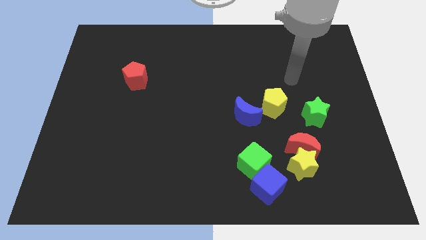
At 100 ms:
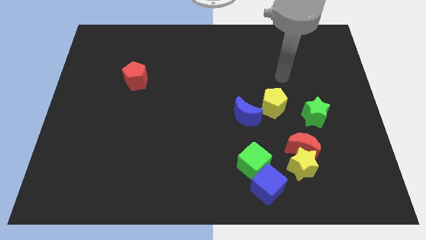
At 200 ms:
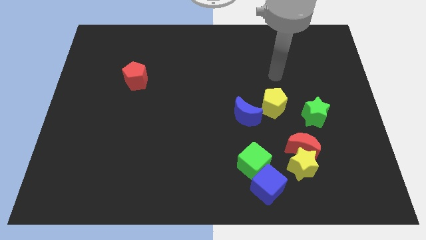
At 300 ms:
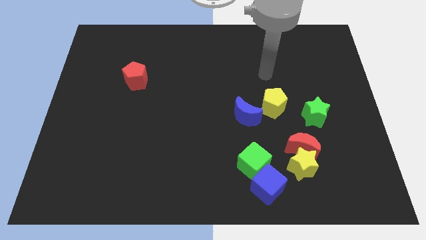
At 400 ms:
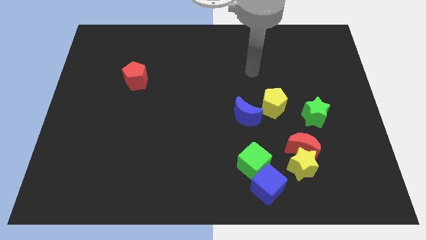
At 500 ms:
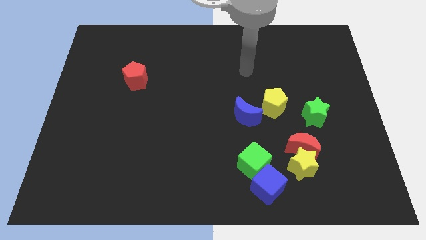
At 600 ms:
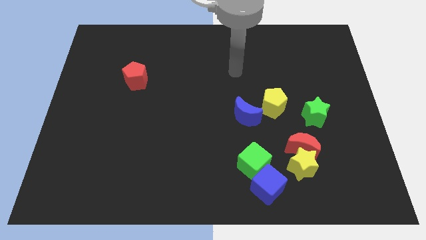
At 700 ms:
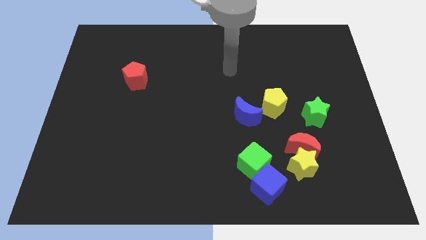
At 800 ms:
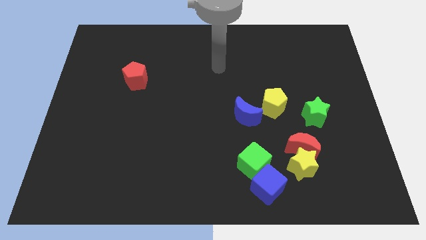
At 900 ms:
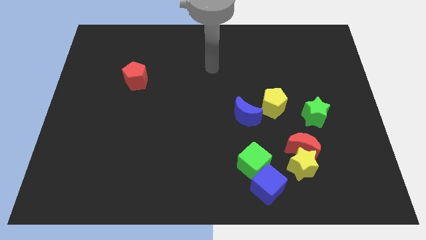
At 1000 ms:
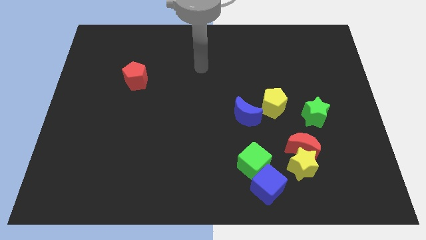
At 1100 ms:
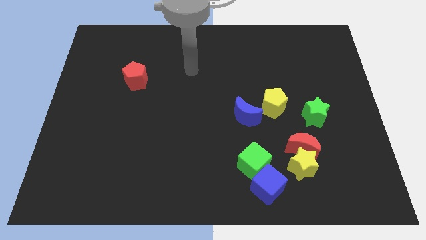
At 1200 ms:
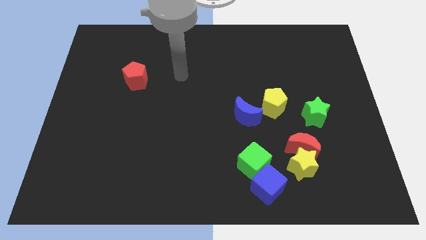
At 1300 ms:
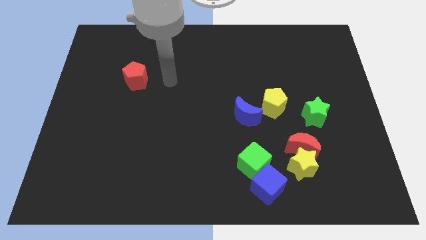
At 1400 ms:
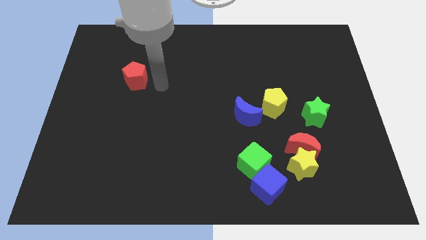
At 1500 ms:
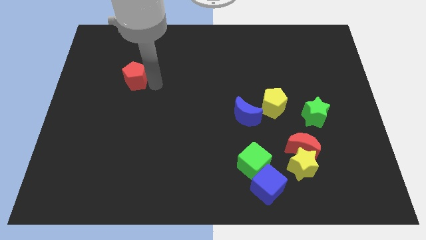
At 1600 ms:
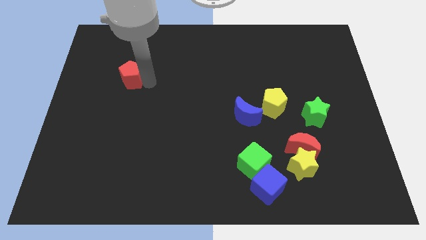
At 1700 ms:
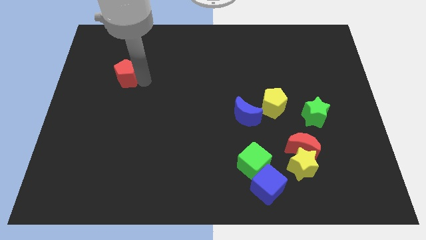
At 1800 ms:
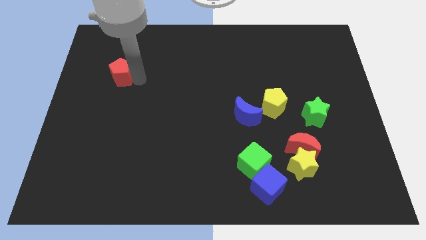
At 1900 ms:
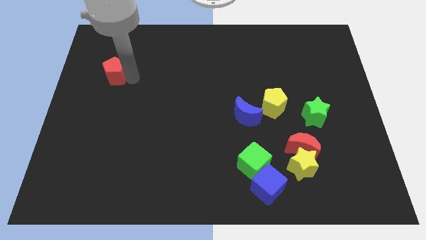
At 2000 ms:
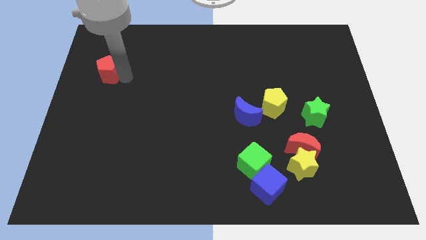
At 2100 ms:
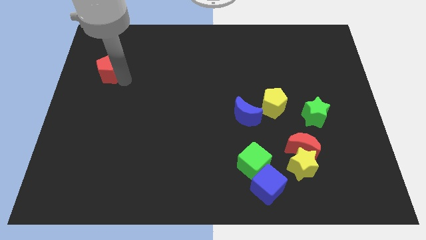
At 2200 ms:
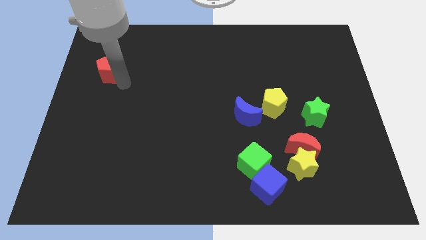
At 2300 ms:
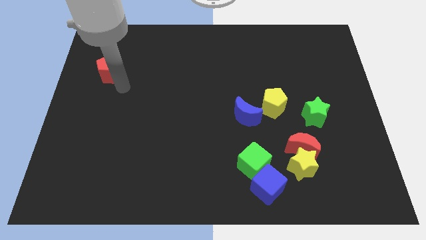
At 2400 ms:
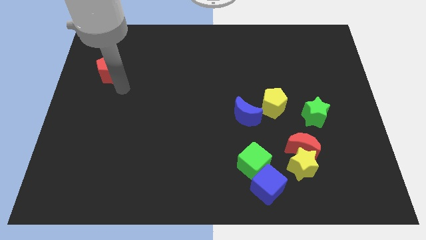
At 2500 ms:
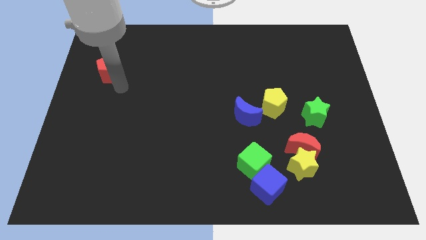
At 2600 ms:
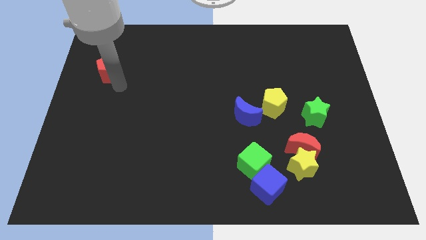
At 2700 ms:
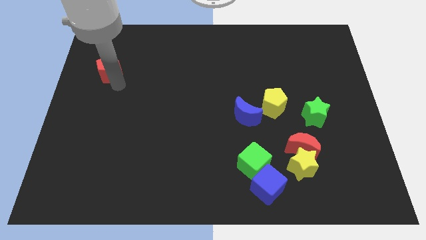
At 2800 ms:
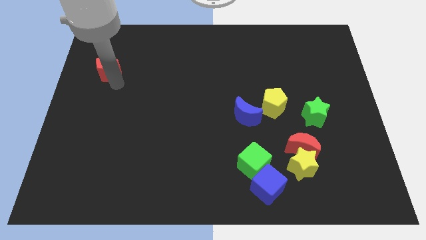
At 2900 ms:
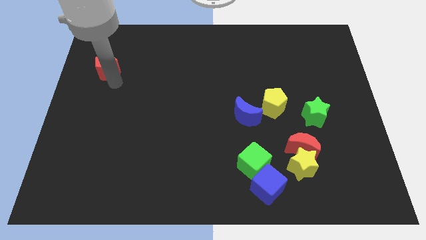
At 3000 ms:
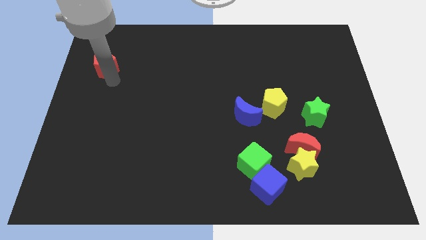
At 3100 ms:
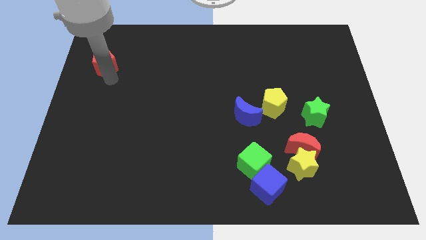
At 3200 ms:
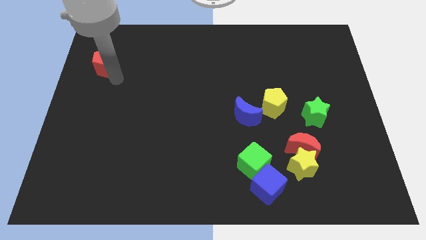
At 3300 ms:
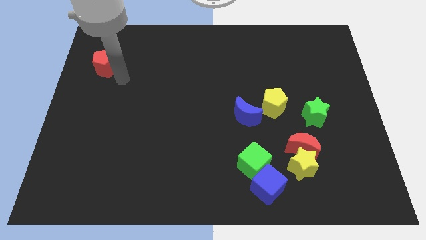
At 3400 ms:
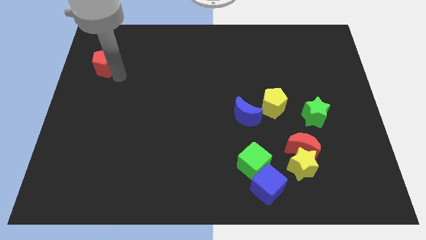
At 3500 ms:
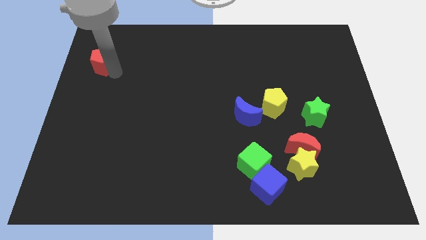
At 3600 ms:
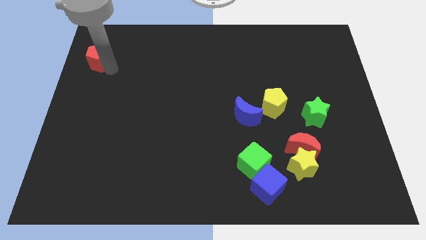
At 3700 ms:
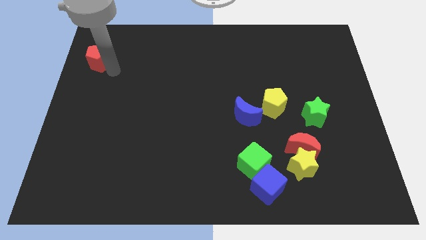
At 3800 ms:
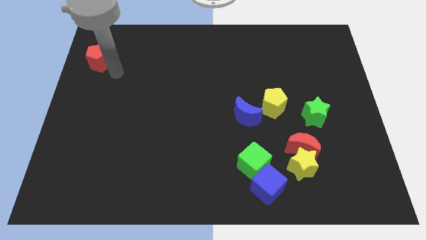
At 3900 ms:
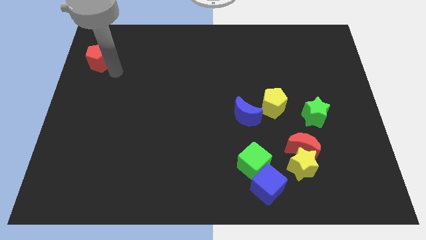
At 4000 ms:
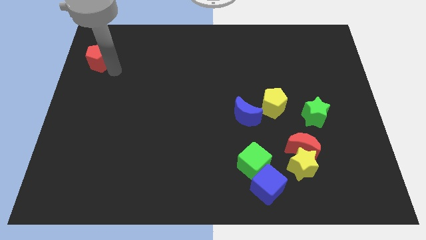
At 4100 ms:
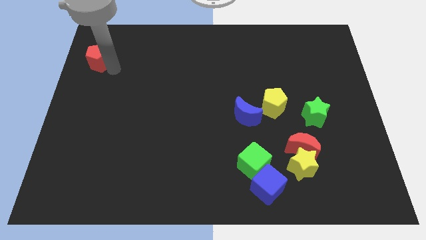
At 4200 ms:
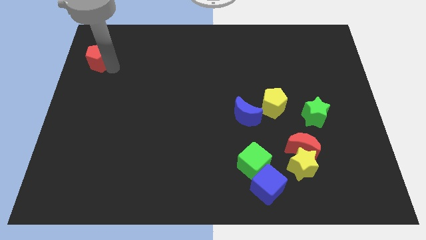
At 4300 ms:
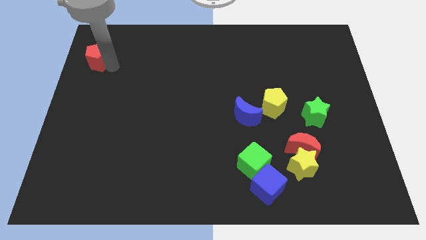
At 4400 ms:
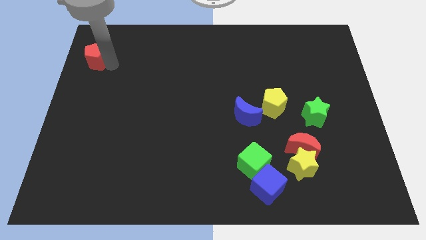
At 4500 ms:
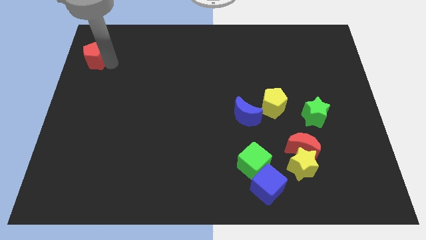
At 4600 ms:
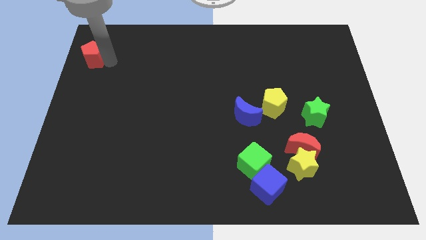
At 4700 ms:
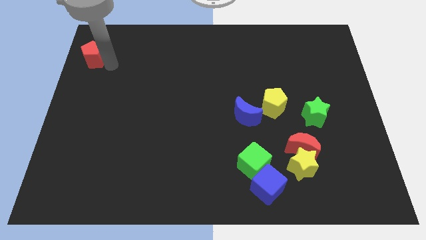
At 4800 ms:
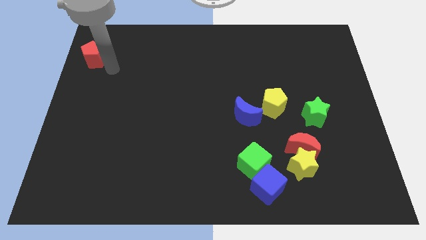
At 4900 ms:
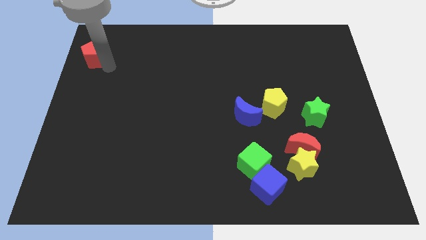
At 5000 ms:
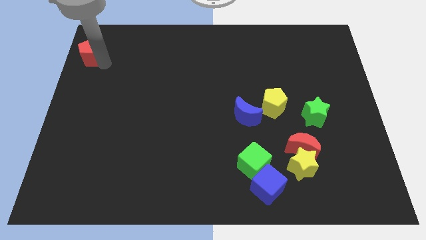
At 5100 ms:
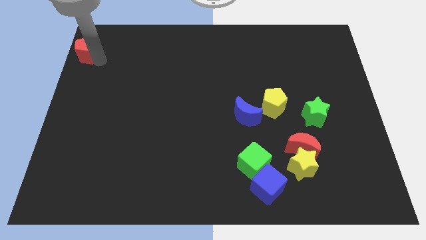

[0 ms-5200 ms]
move the red pentagon to the top left of the board

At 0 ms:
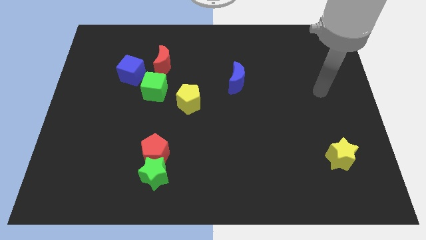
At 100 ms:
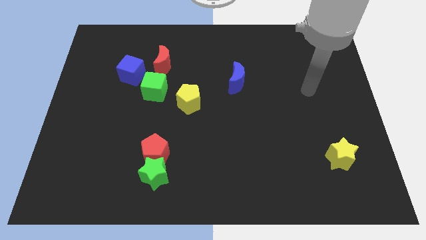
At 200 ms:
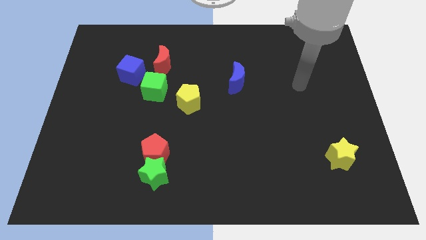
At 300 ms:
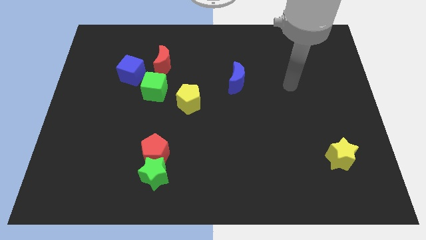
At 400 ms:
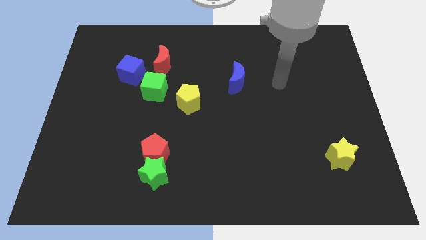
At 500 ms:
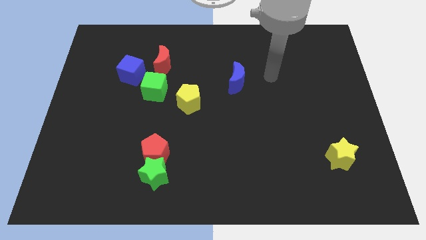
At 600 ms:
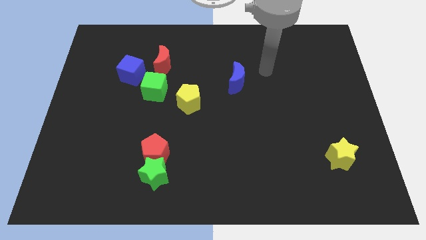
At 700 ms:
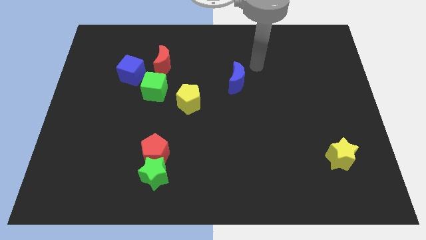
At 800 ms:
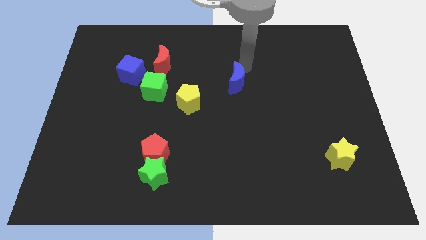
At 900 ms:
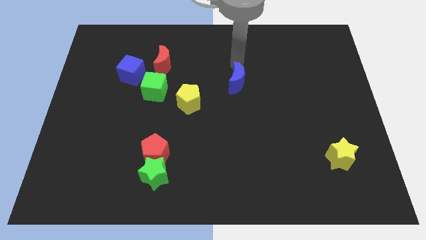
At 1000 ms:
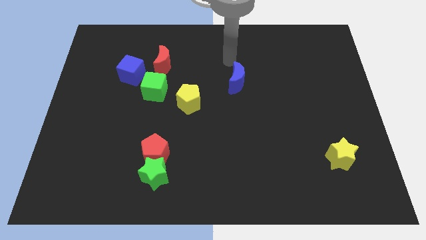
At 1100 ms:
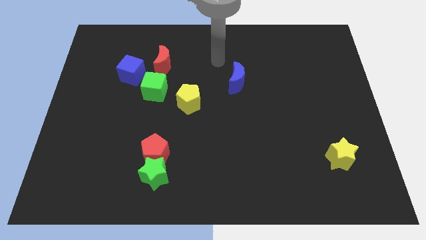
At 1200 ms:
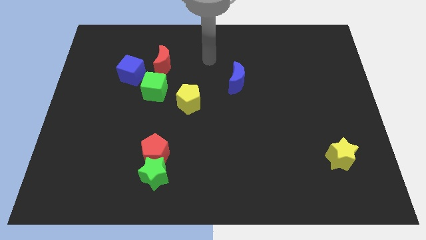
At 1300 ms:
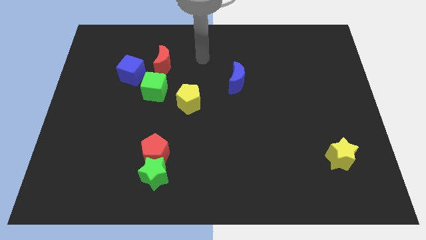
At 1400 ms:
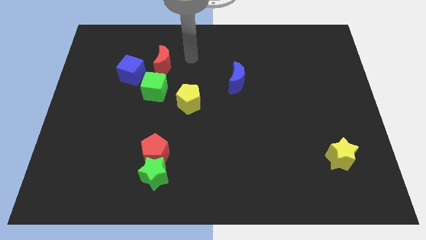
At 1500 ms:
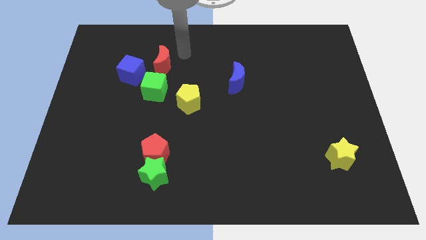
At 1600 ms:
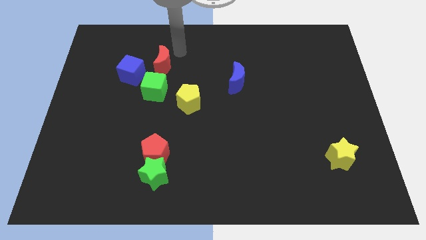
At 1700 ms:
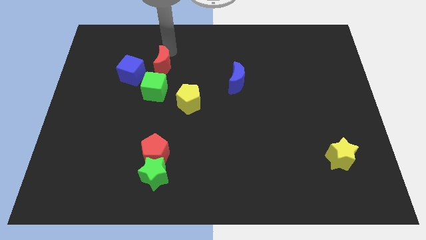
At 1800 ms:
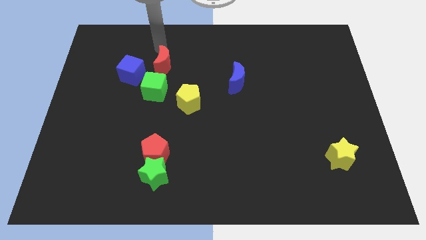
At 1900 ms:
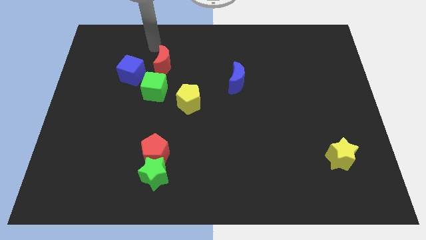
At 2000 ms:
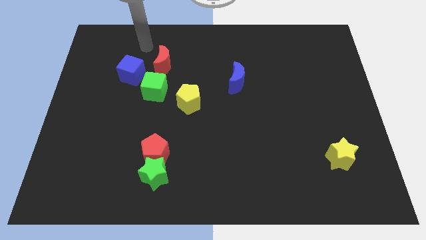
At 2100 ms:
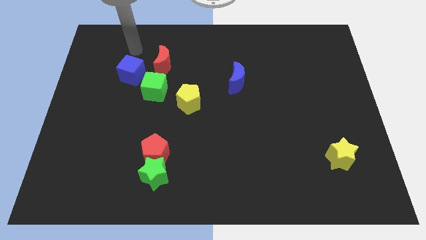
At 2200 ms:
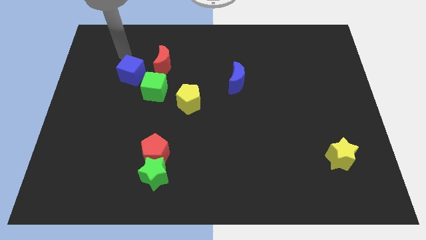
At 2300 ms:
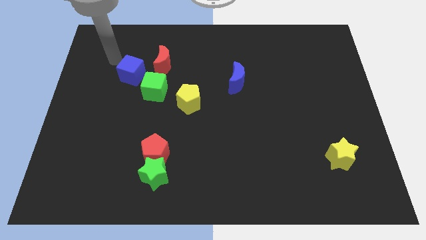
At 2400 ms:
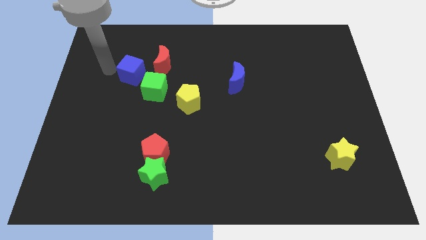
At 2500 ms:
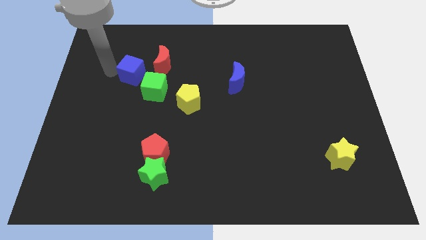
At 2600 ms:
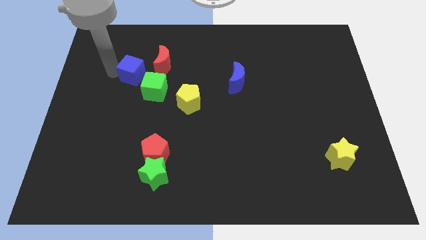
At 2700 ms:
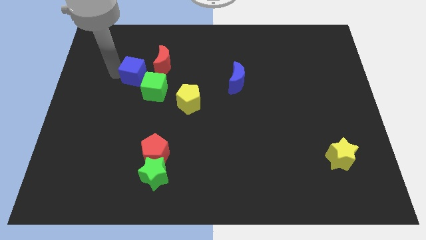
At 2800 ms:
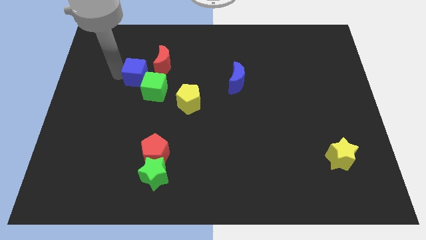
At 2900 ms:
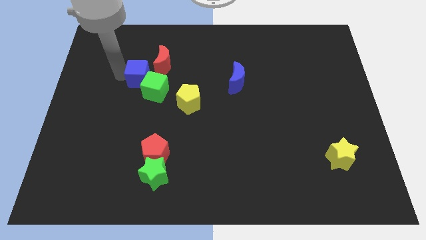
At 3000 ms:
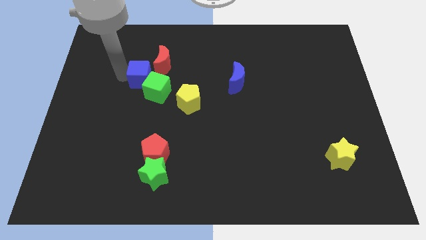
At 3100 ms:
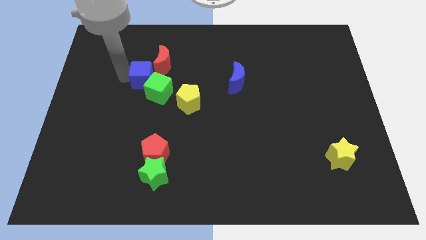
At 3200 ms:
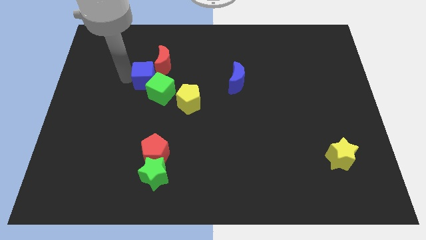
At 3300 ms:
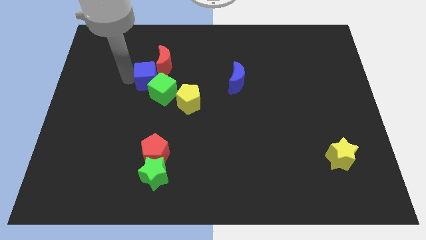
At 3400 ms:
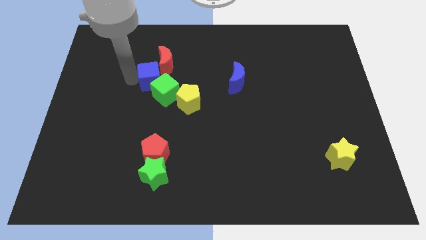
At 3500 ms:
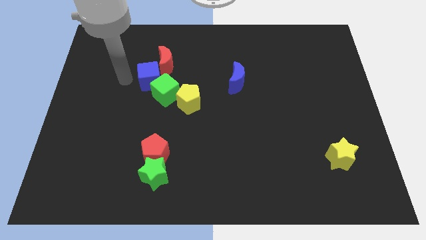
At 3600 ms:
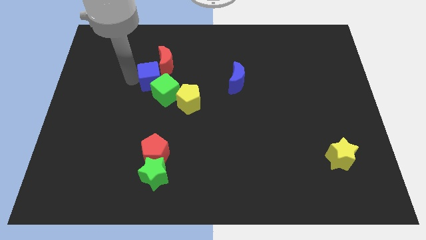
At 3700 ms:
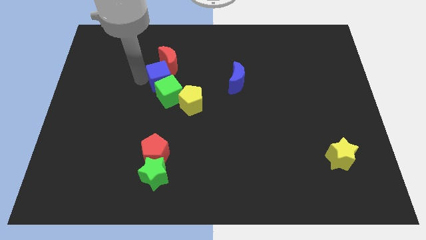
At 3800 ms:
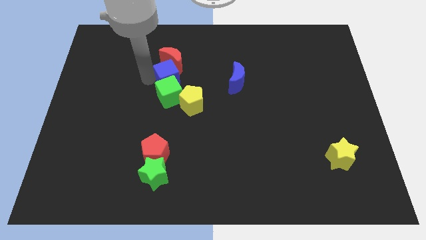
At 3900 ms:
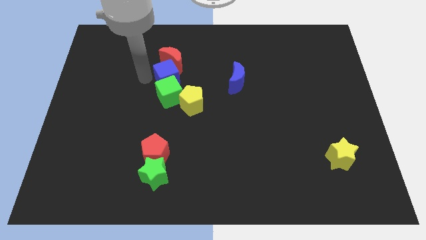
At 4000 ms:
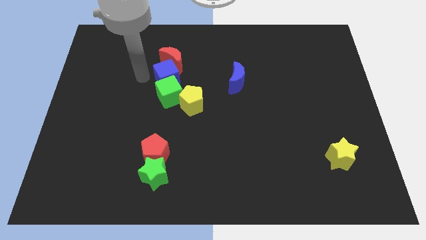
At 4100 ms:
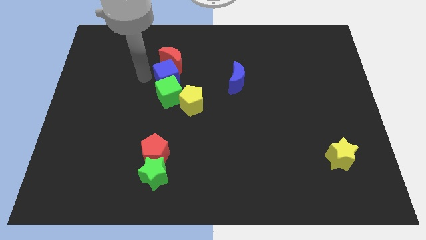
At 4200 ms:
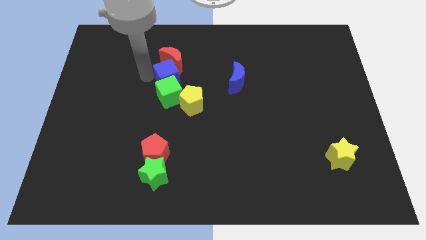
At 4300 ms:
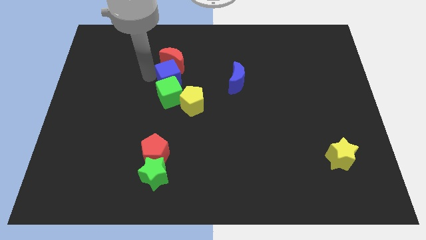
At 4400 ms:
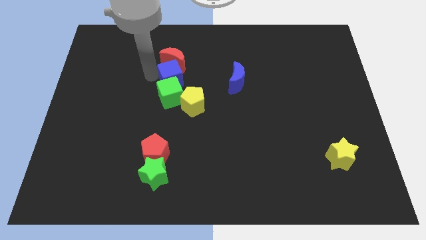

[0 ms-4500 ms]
push the blue cube to the center
